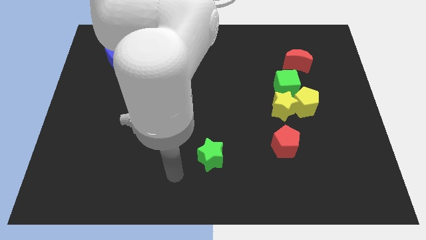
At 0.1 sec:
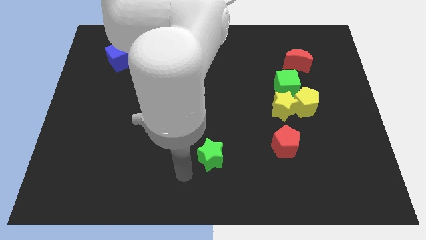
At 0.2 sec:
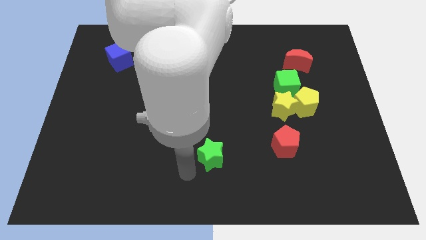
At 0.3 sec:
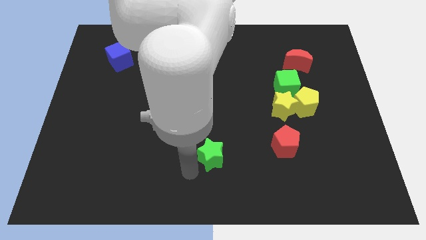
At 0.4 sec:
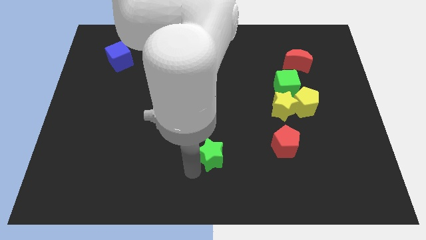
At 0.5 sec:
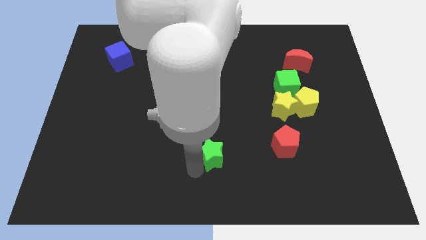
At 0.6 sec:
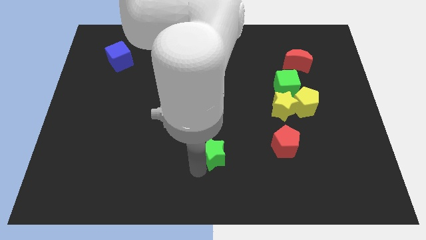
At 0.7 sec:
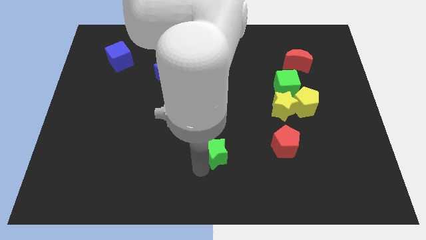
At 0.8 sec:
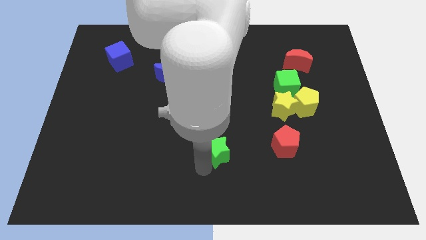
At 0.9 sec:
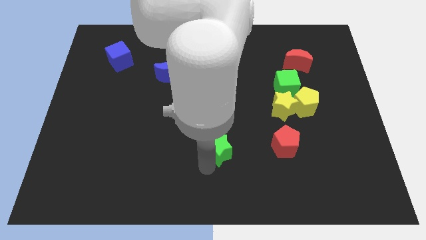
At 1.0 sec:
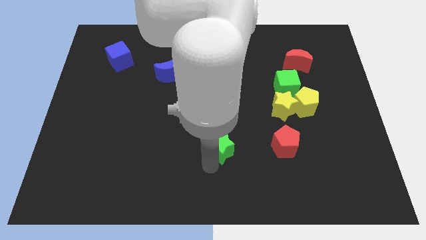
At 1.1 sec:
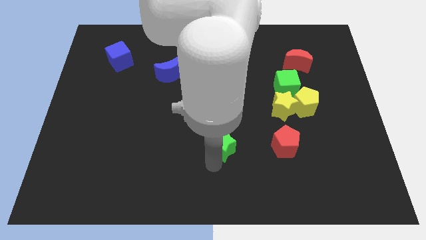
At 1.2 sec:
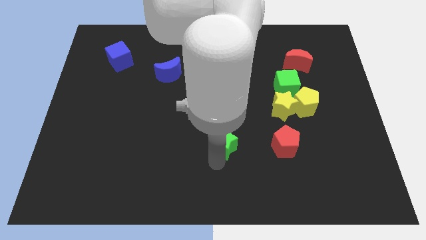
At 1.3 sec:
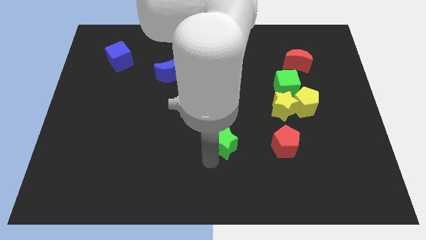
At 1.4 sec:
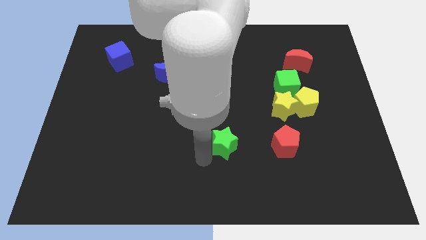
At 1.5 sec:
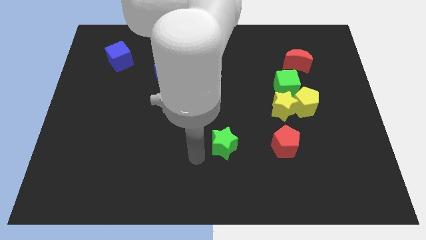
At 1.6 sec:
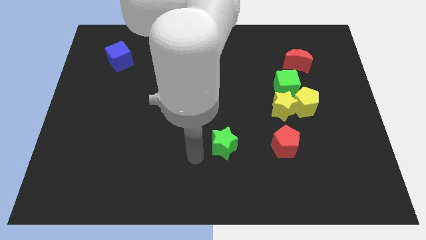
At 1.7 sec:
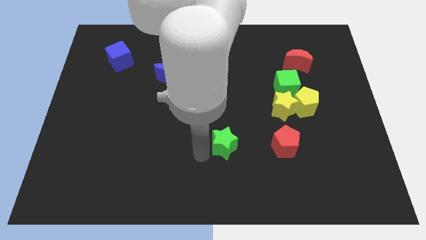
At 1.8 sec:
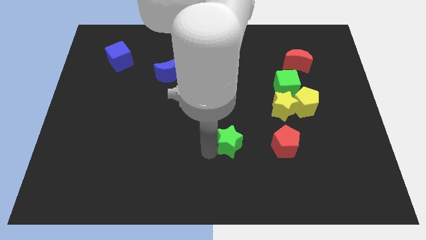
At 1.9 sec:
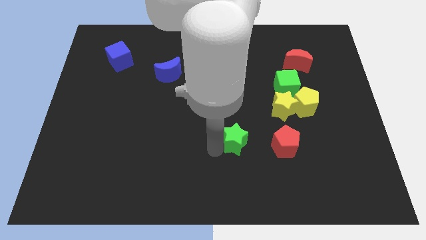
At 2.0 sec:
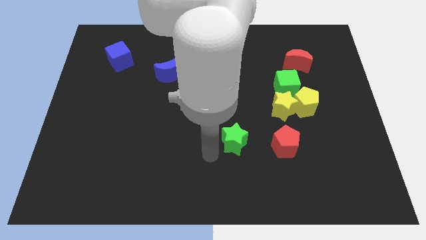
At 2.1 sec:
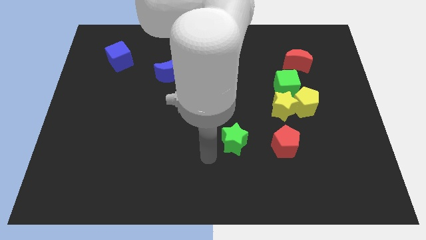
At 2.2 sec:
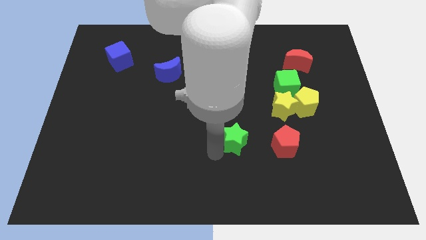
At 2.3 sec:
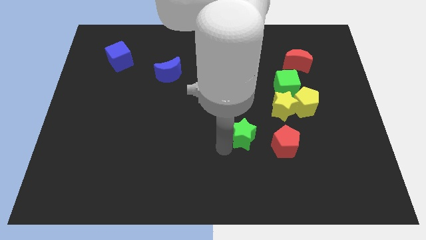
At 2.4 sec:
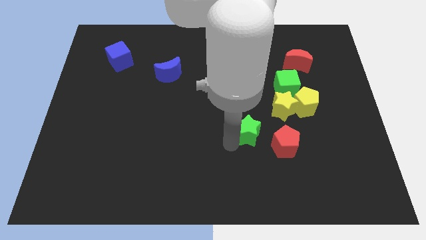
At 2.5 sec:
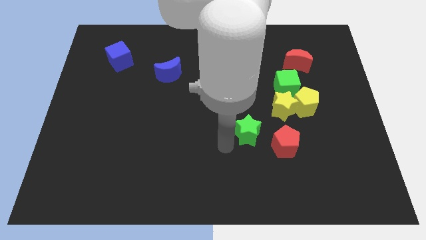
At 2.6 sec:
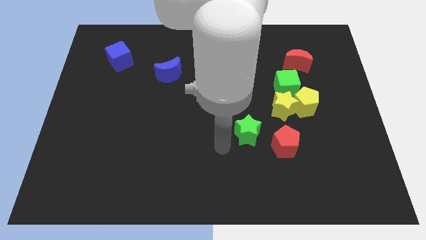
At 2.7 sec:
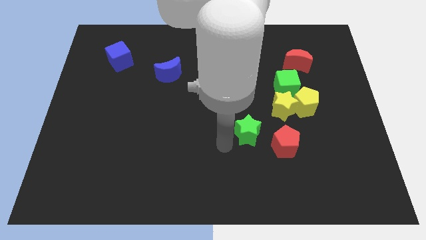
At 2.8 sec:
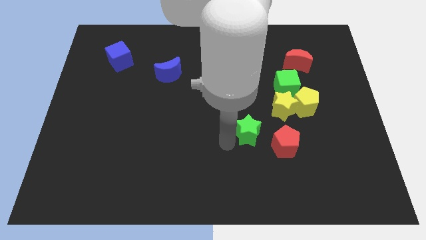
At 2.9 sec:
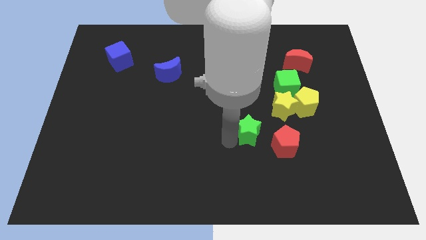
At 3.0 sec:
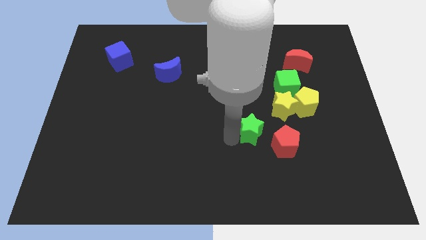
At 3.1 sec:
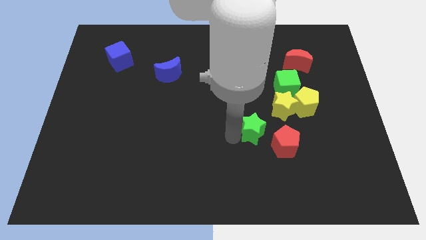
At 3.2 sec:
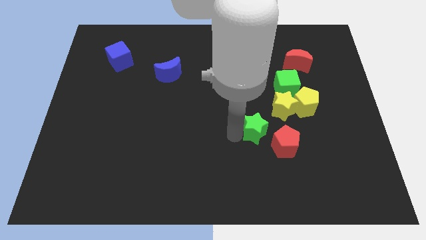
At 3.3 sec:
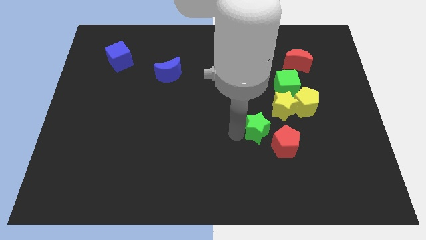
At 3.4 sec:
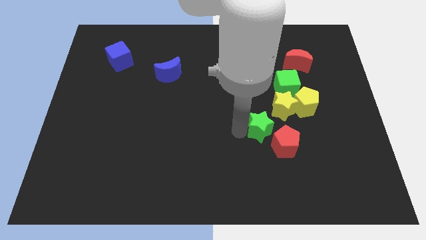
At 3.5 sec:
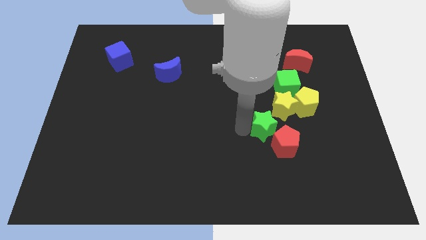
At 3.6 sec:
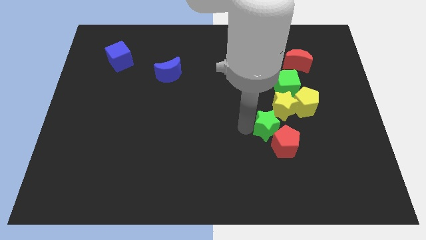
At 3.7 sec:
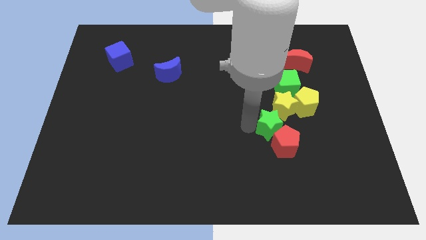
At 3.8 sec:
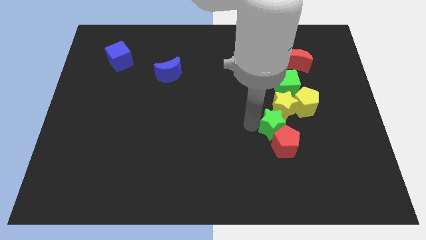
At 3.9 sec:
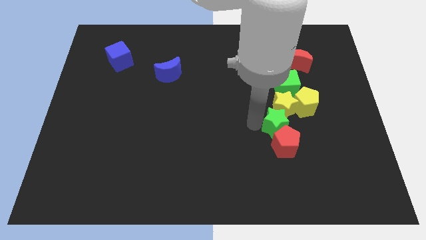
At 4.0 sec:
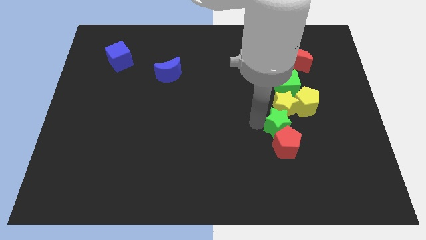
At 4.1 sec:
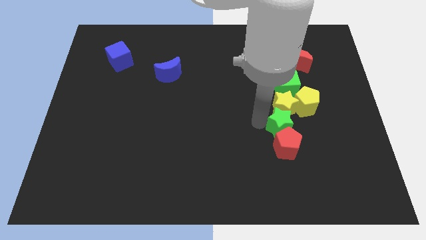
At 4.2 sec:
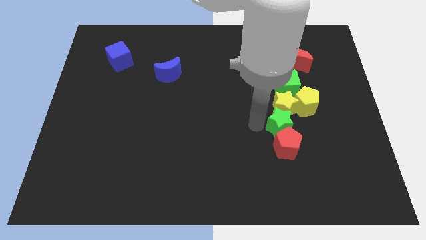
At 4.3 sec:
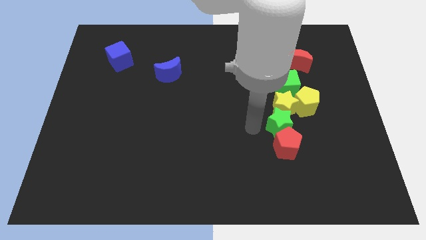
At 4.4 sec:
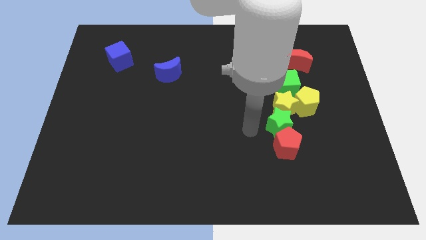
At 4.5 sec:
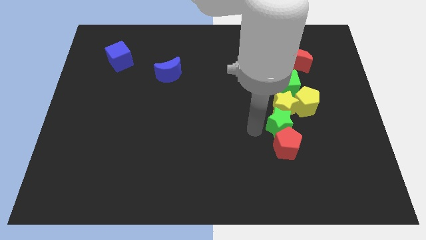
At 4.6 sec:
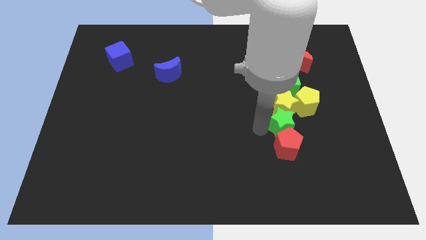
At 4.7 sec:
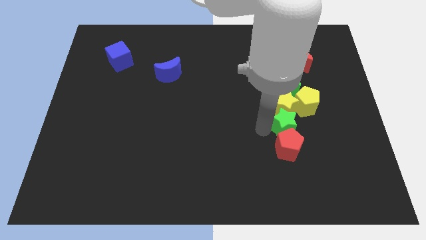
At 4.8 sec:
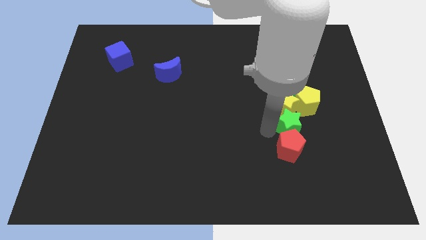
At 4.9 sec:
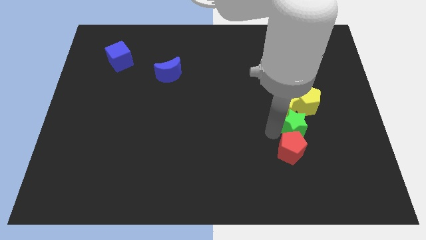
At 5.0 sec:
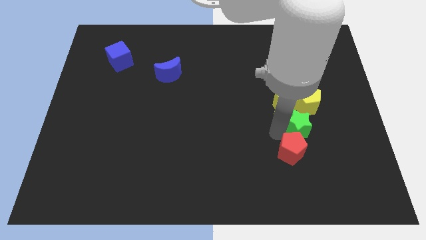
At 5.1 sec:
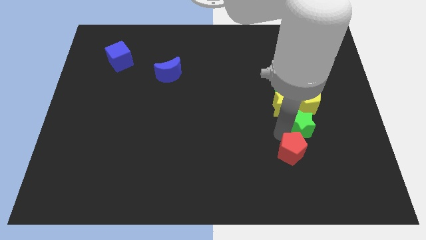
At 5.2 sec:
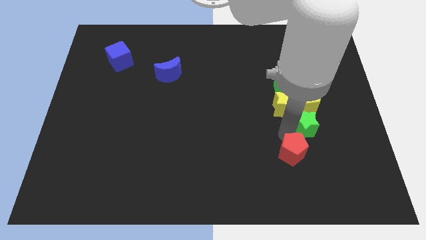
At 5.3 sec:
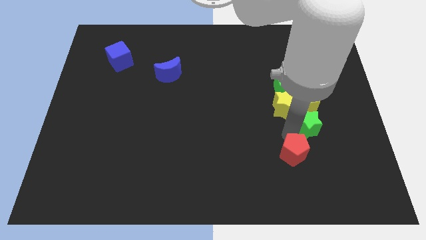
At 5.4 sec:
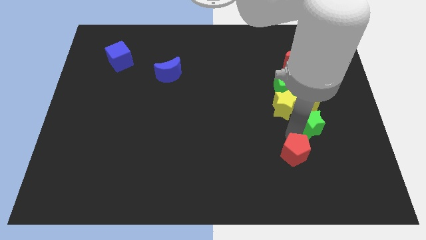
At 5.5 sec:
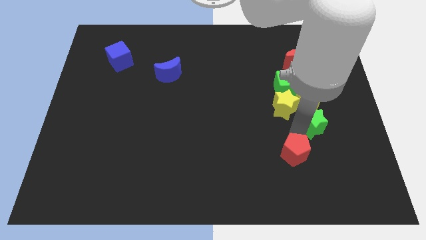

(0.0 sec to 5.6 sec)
put the green star to the bottom right of the yellow pentagon
